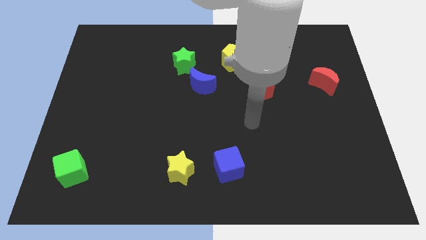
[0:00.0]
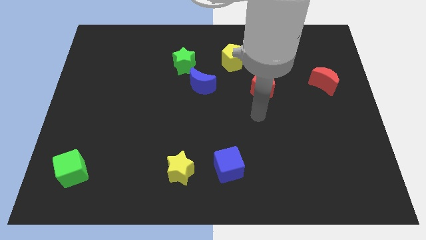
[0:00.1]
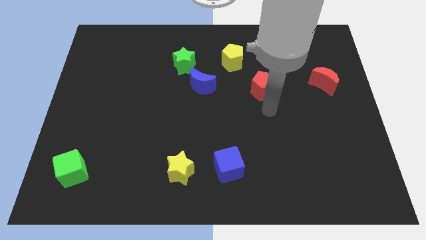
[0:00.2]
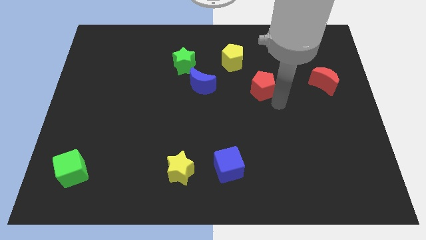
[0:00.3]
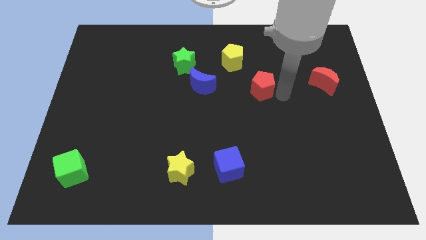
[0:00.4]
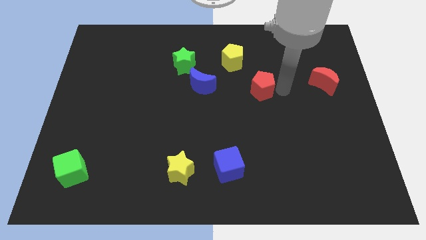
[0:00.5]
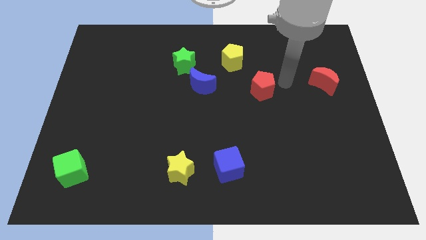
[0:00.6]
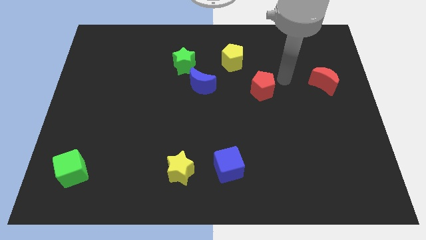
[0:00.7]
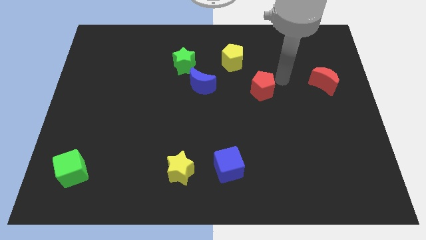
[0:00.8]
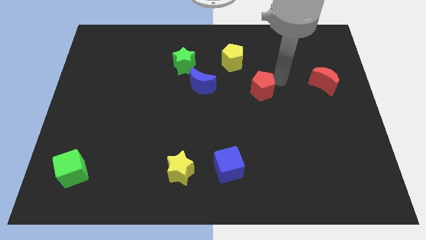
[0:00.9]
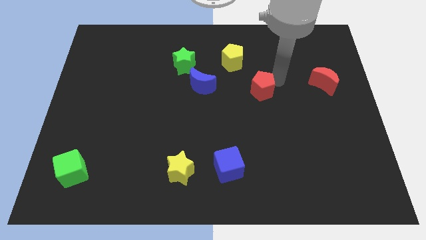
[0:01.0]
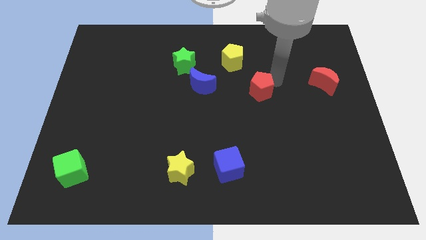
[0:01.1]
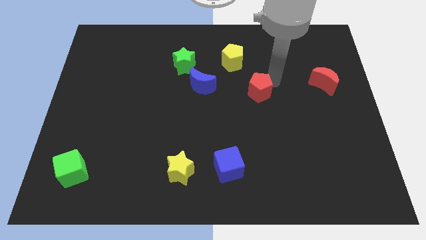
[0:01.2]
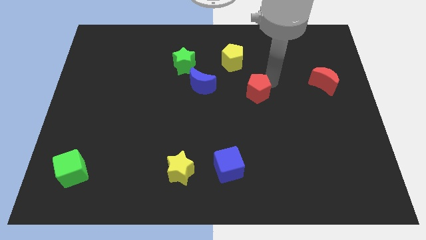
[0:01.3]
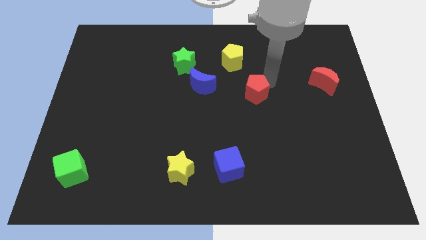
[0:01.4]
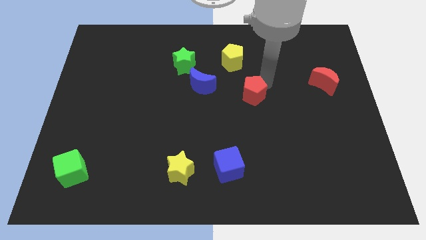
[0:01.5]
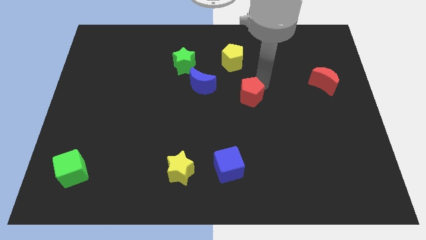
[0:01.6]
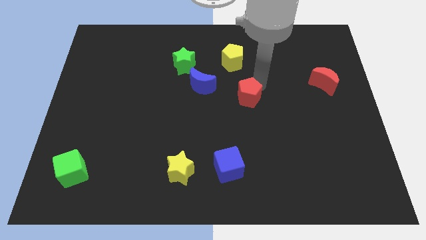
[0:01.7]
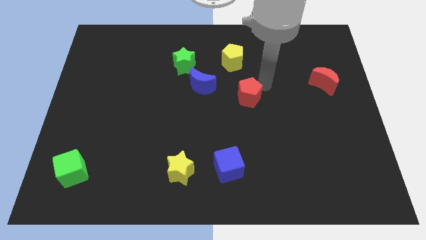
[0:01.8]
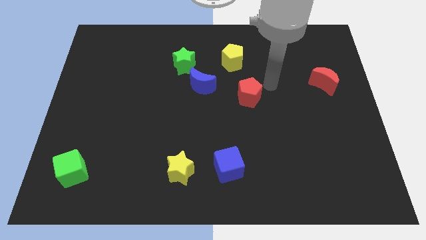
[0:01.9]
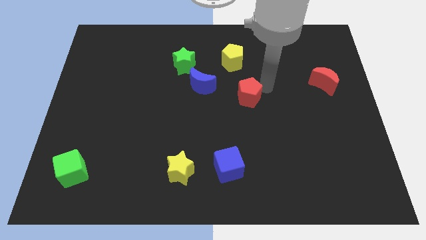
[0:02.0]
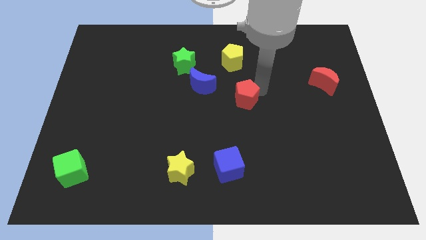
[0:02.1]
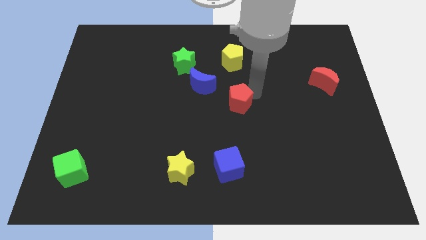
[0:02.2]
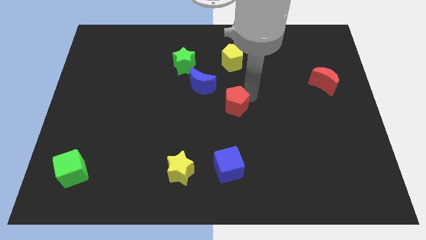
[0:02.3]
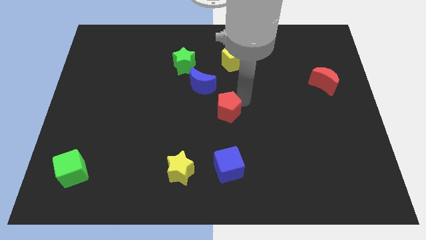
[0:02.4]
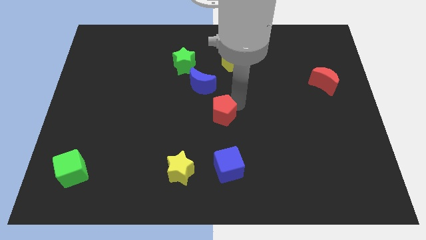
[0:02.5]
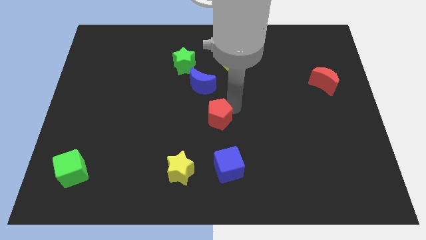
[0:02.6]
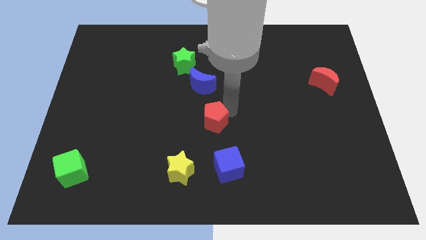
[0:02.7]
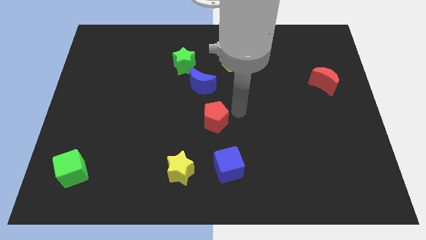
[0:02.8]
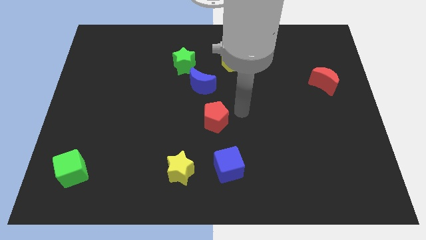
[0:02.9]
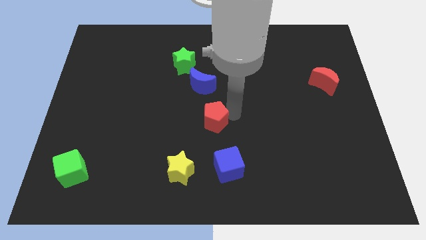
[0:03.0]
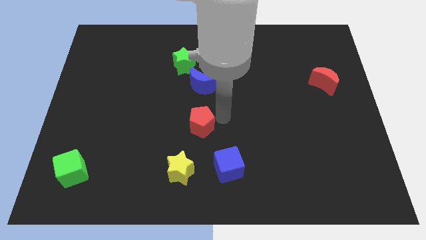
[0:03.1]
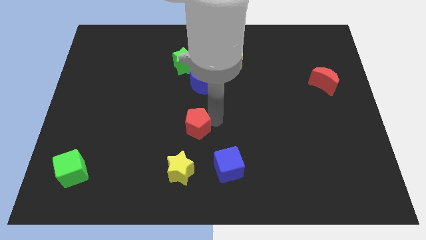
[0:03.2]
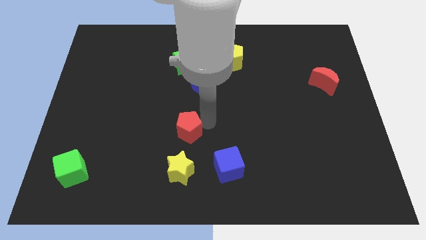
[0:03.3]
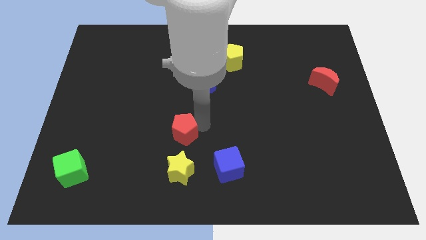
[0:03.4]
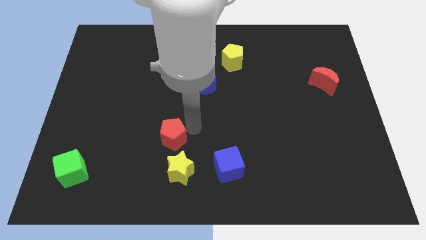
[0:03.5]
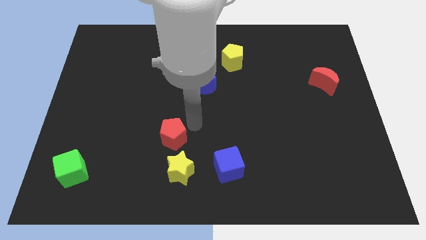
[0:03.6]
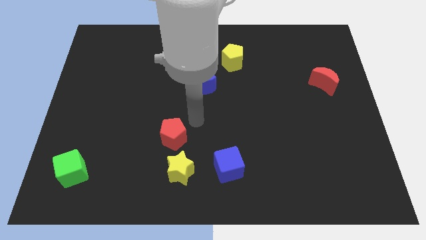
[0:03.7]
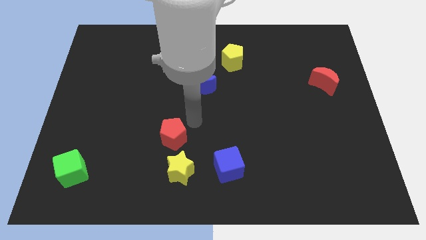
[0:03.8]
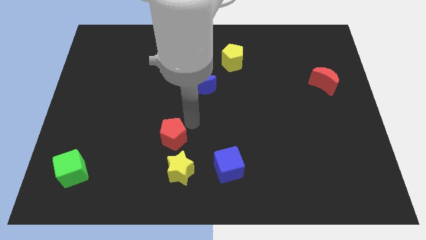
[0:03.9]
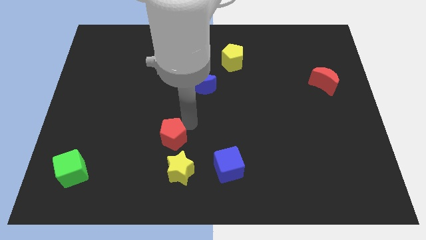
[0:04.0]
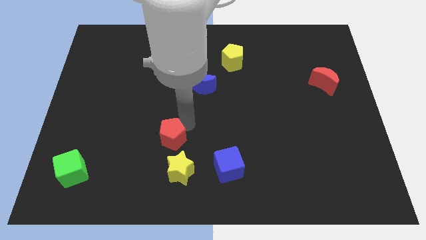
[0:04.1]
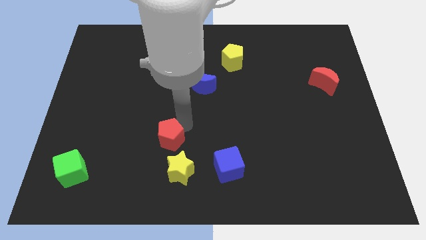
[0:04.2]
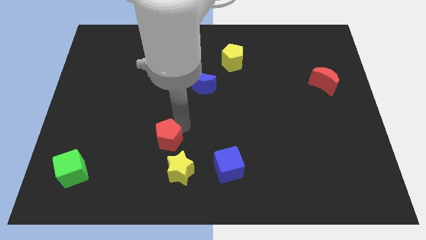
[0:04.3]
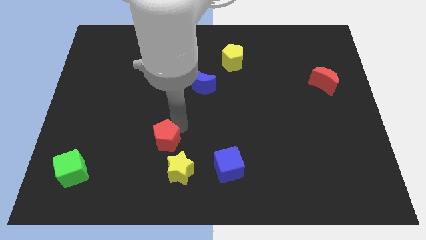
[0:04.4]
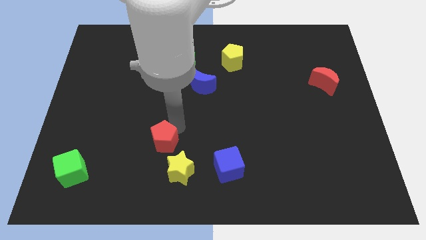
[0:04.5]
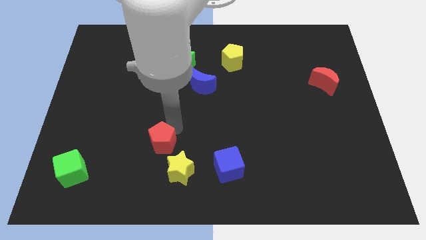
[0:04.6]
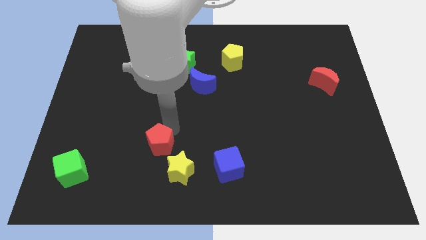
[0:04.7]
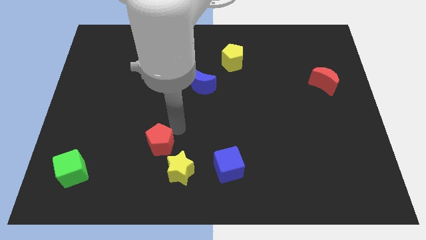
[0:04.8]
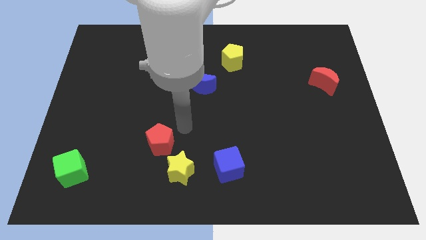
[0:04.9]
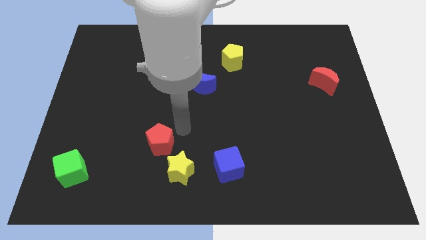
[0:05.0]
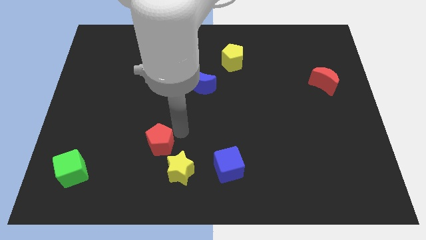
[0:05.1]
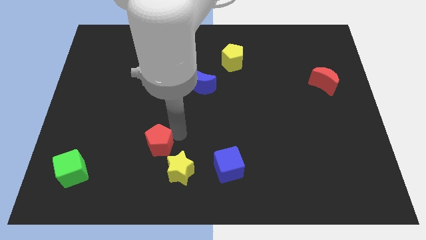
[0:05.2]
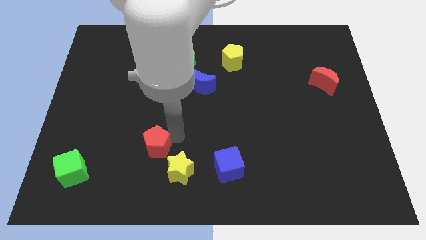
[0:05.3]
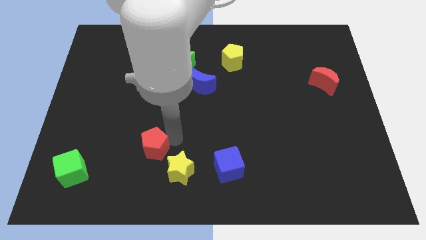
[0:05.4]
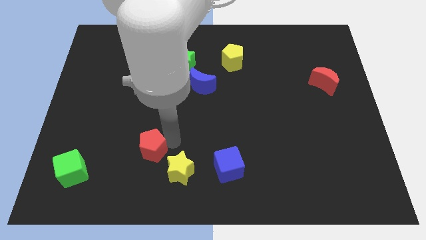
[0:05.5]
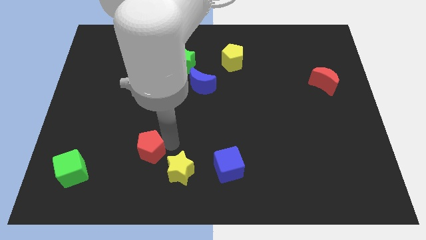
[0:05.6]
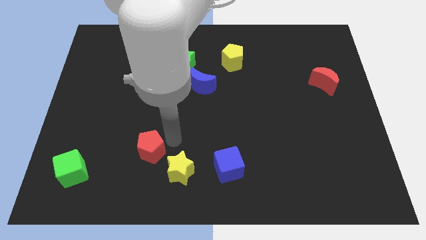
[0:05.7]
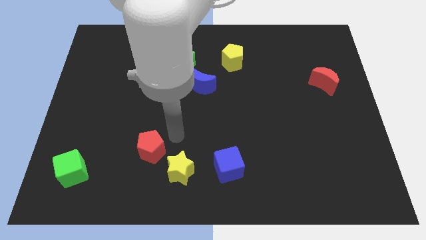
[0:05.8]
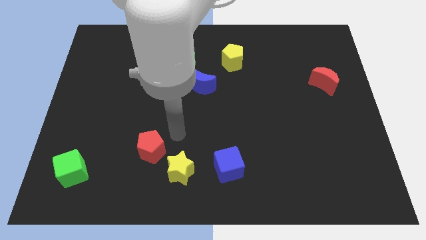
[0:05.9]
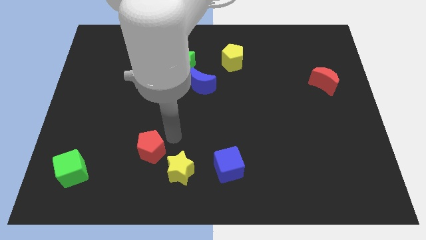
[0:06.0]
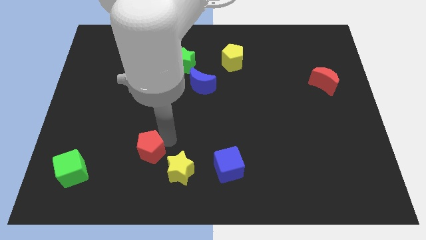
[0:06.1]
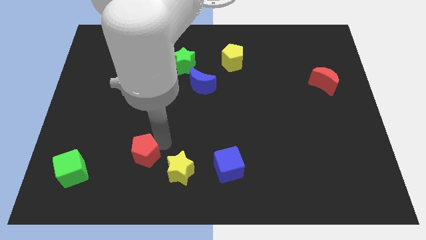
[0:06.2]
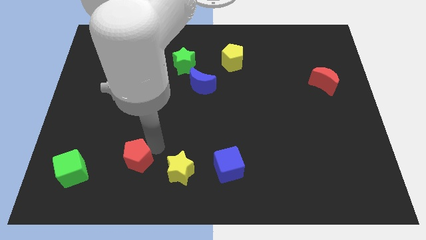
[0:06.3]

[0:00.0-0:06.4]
put the red pentagon just right of the green cube

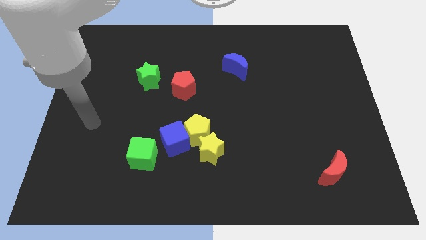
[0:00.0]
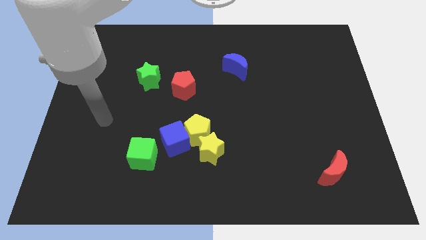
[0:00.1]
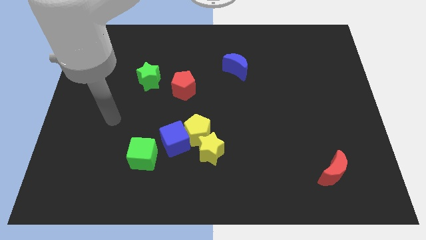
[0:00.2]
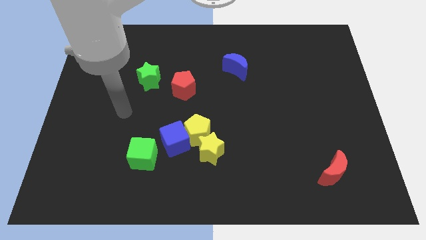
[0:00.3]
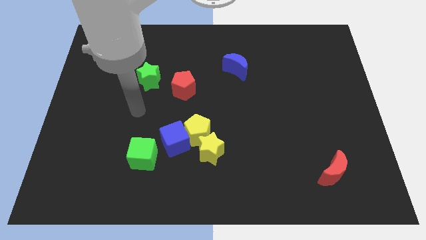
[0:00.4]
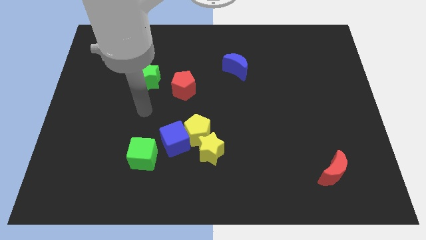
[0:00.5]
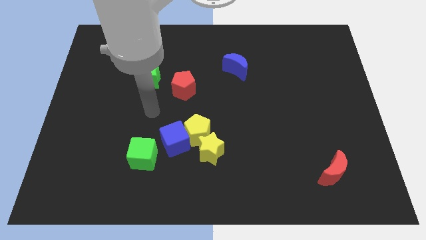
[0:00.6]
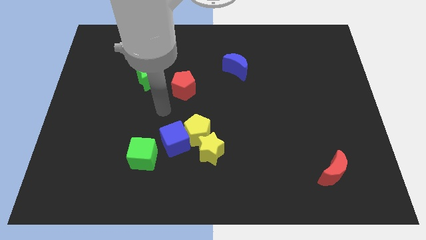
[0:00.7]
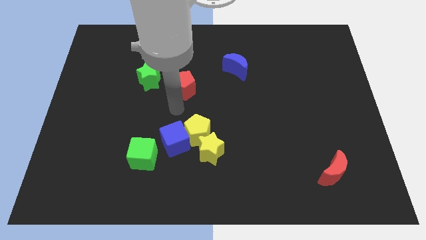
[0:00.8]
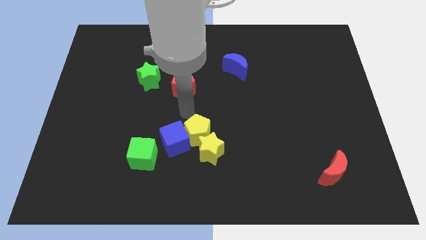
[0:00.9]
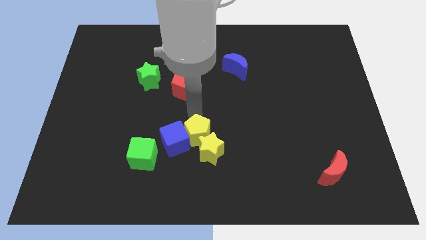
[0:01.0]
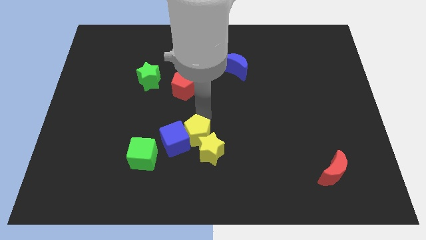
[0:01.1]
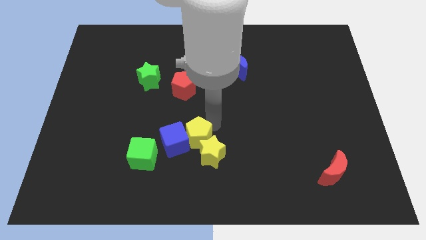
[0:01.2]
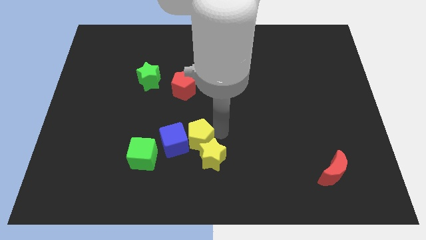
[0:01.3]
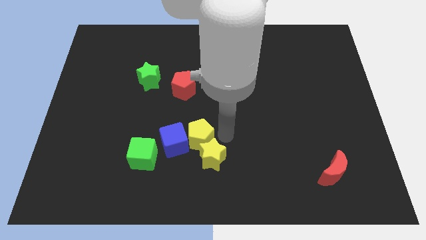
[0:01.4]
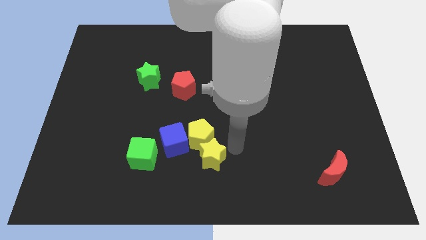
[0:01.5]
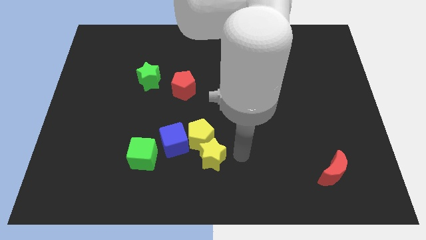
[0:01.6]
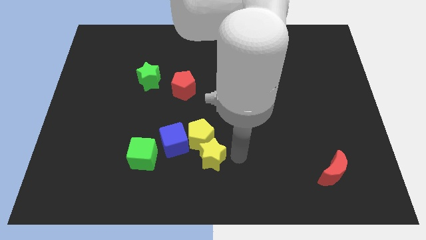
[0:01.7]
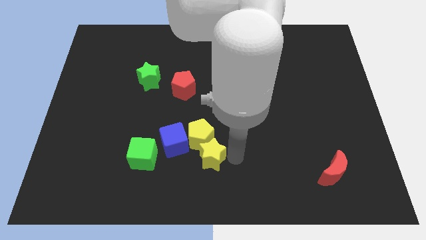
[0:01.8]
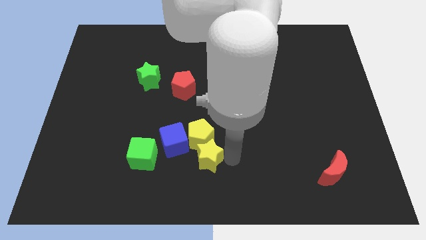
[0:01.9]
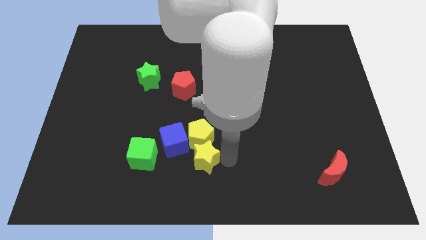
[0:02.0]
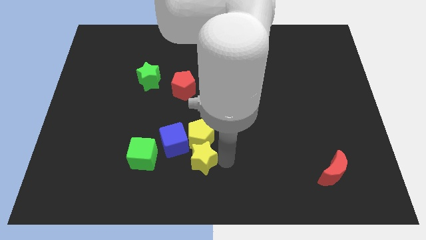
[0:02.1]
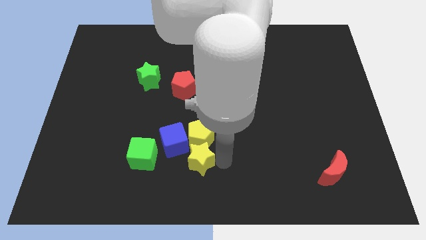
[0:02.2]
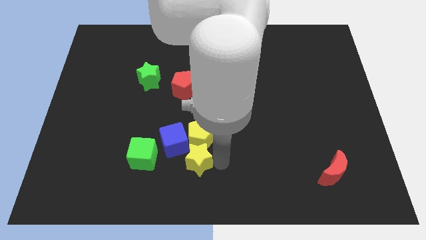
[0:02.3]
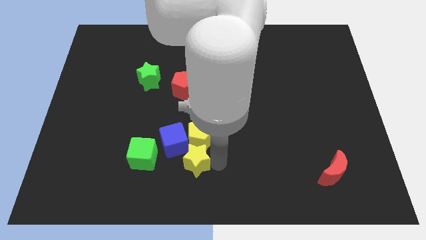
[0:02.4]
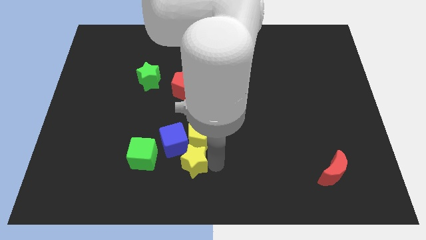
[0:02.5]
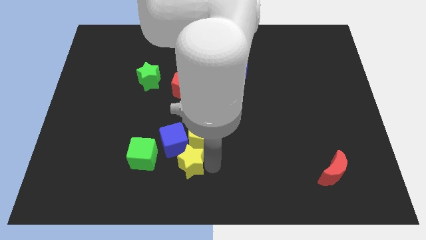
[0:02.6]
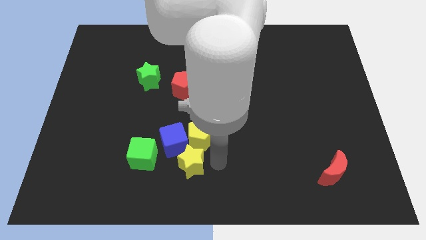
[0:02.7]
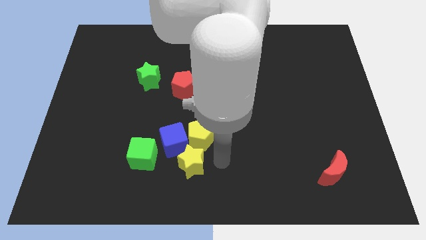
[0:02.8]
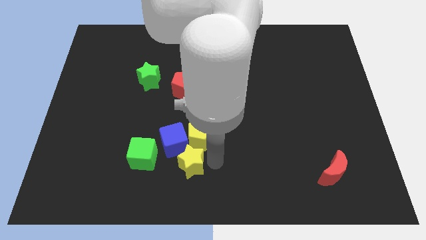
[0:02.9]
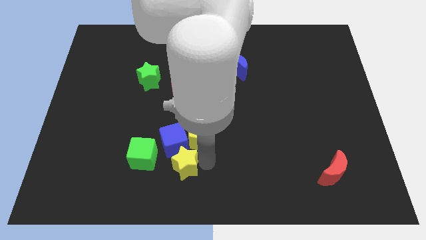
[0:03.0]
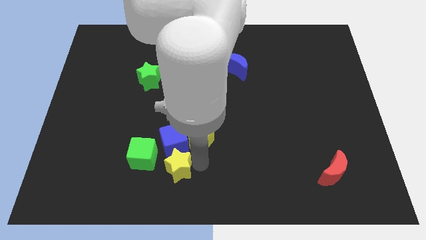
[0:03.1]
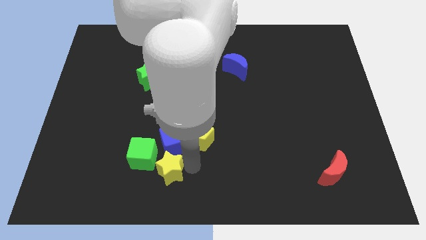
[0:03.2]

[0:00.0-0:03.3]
move the yellow star to the bottom left side of the blue cube
